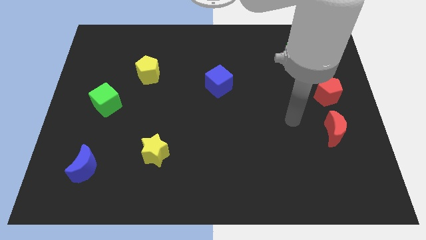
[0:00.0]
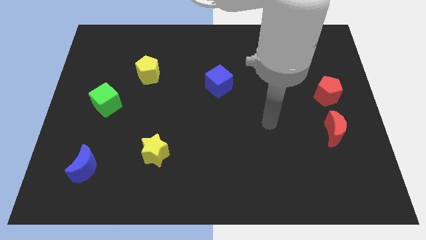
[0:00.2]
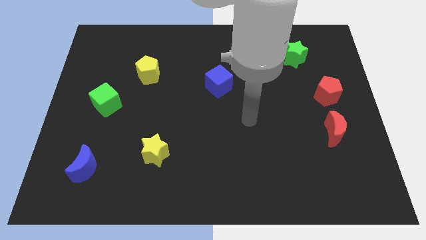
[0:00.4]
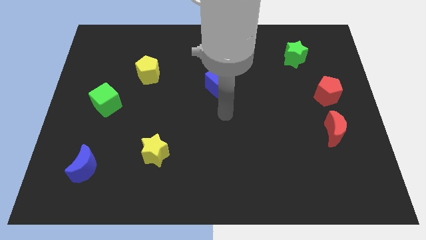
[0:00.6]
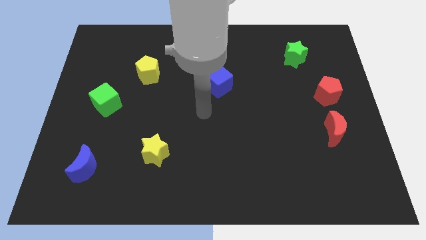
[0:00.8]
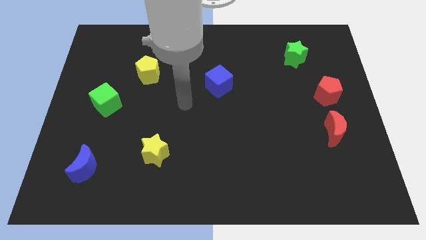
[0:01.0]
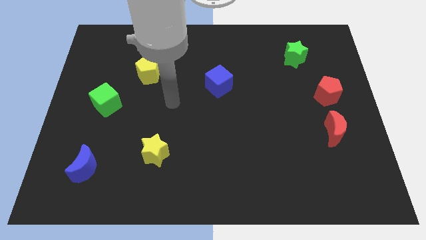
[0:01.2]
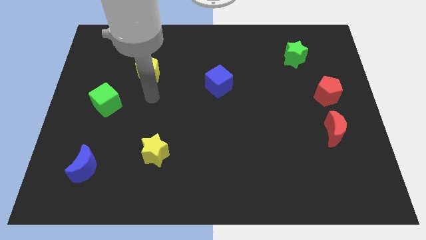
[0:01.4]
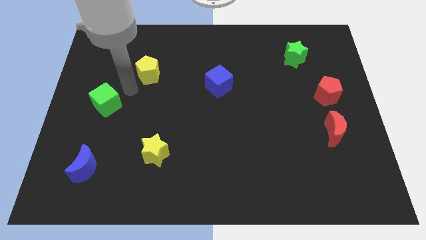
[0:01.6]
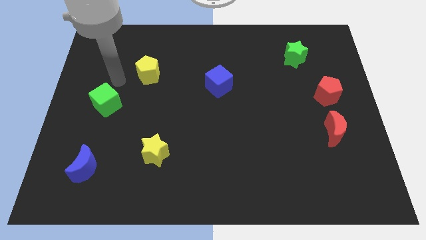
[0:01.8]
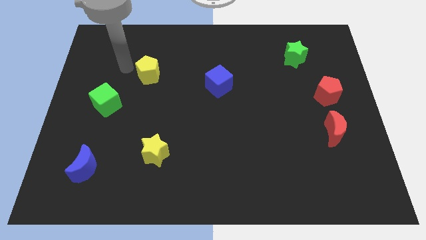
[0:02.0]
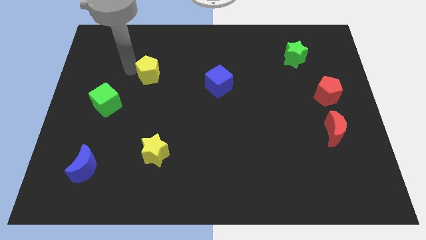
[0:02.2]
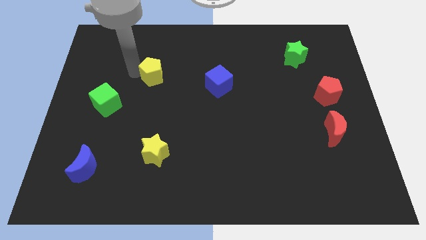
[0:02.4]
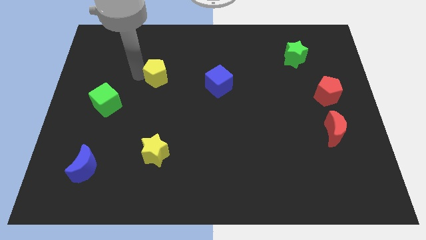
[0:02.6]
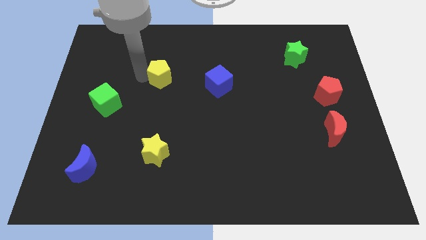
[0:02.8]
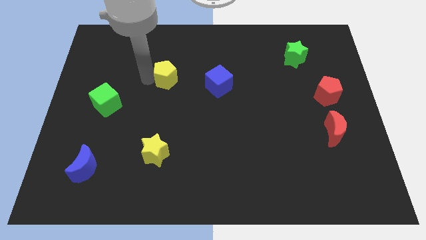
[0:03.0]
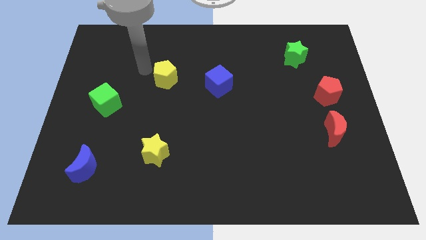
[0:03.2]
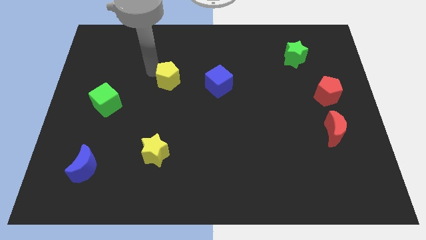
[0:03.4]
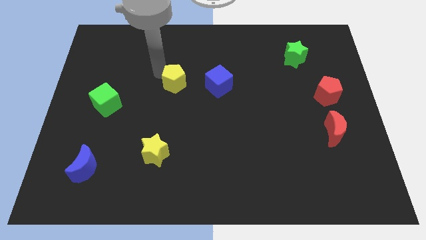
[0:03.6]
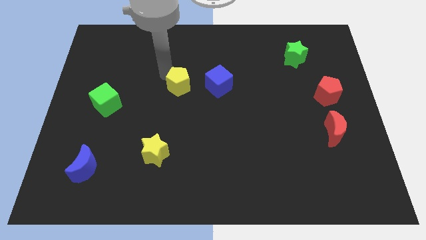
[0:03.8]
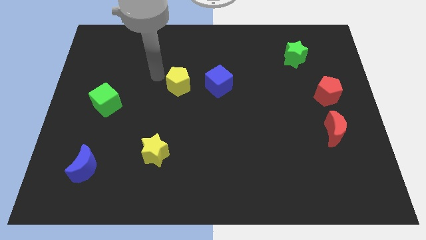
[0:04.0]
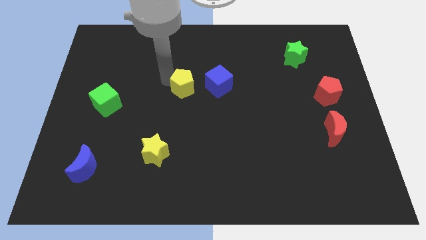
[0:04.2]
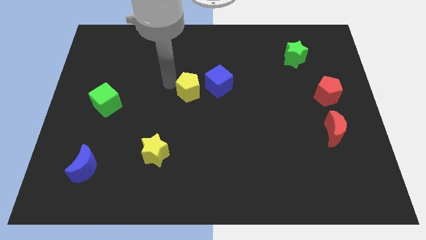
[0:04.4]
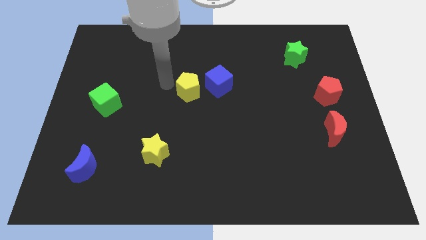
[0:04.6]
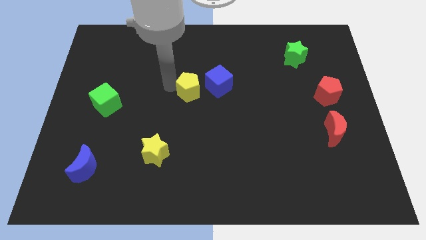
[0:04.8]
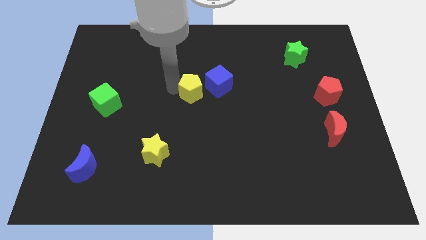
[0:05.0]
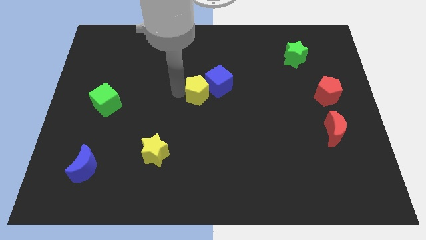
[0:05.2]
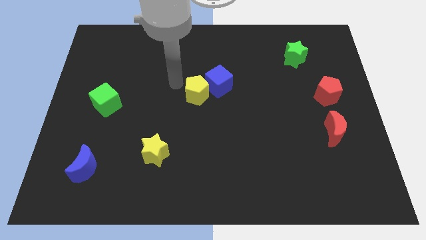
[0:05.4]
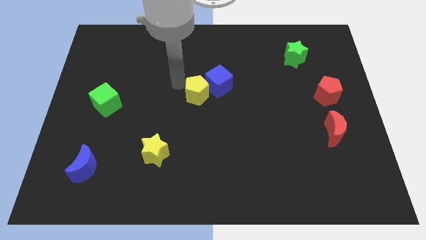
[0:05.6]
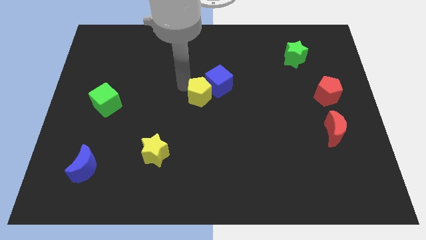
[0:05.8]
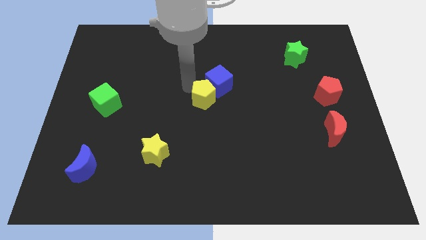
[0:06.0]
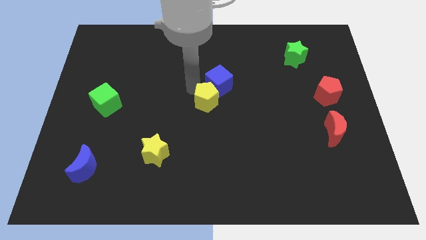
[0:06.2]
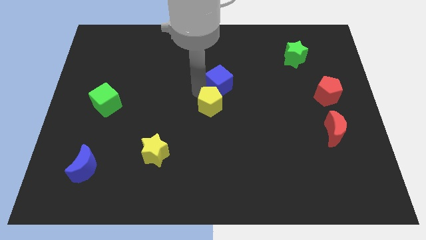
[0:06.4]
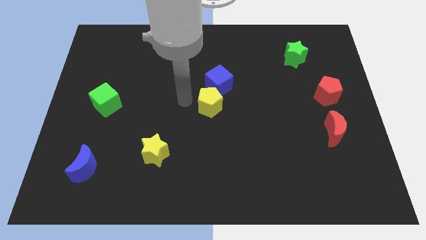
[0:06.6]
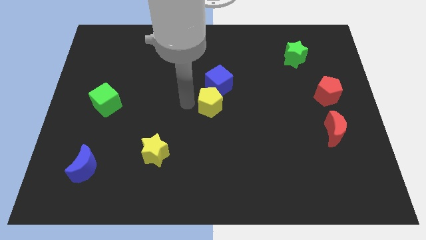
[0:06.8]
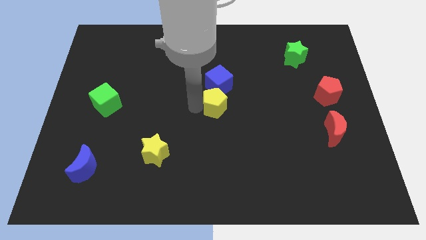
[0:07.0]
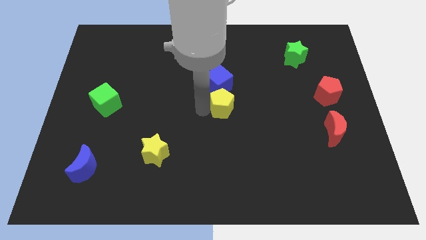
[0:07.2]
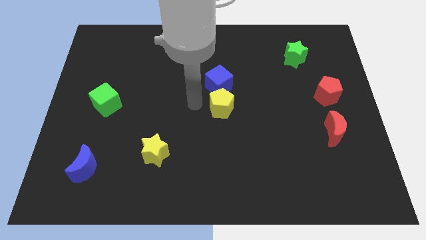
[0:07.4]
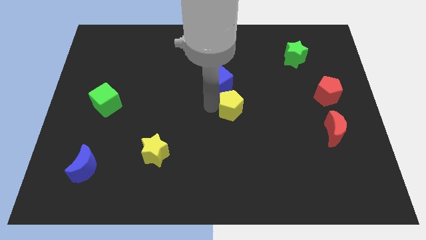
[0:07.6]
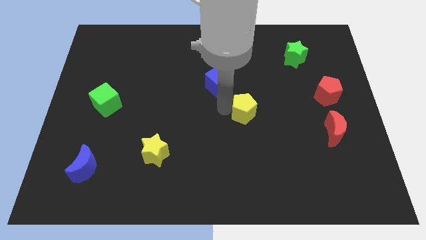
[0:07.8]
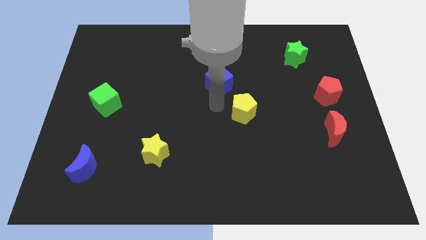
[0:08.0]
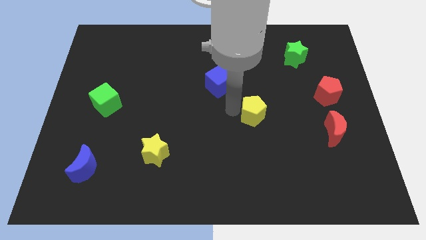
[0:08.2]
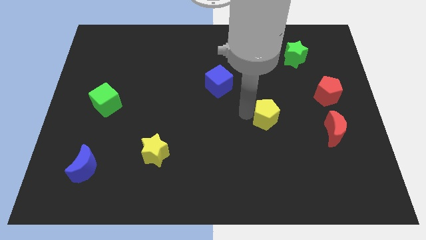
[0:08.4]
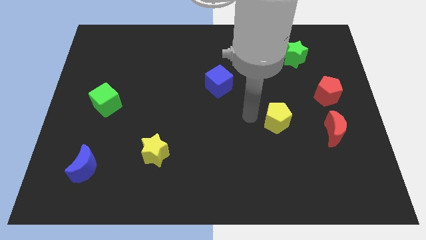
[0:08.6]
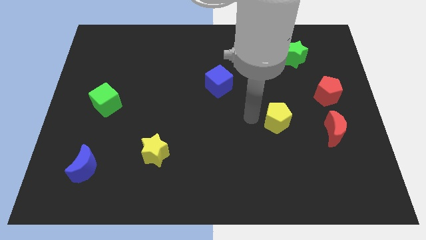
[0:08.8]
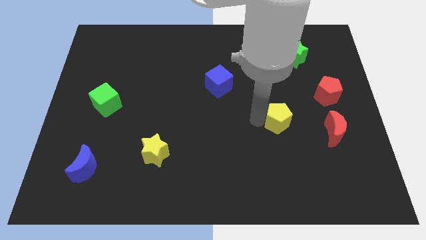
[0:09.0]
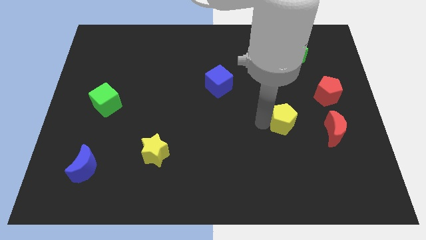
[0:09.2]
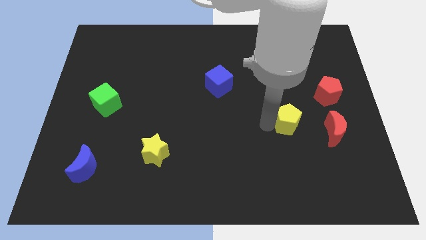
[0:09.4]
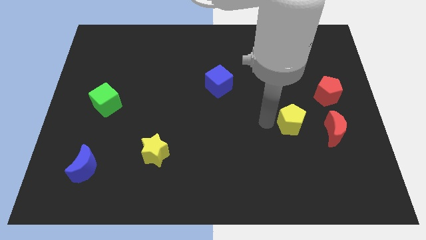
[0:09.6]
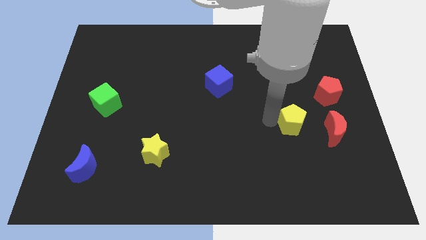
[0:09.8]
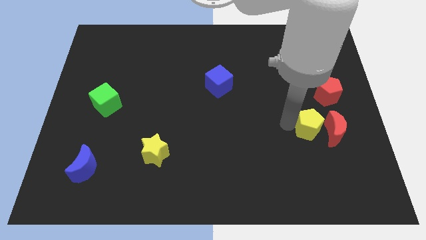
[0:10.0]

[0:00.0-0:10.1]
move the yellow pentagon close to the red moon

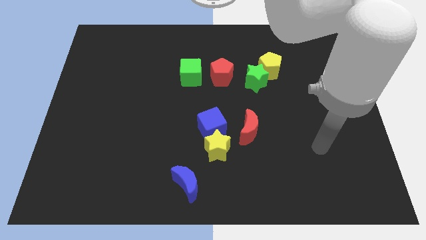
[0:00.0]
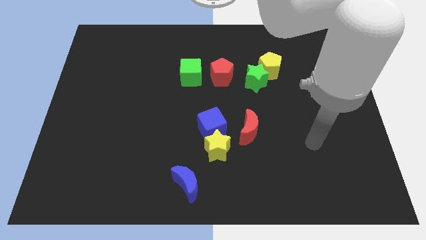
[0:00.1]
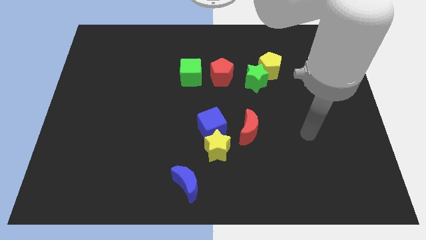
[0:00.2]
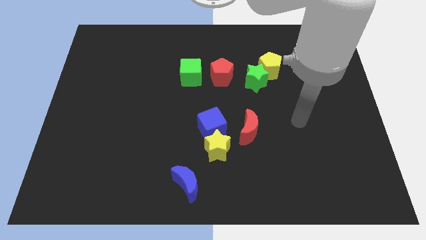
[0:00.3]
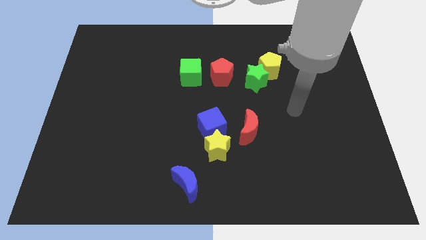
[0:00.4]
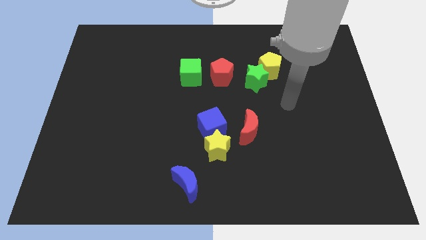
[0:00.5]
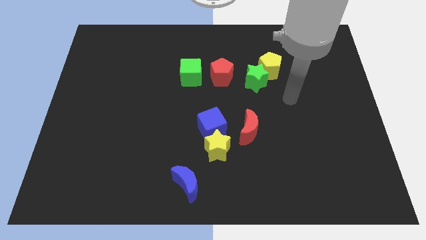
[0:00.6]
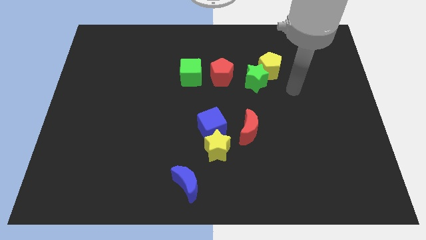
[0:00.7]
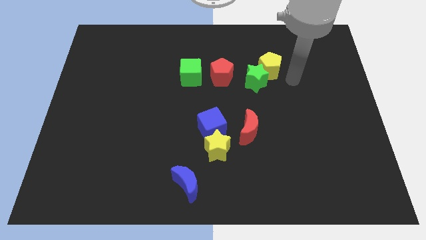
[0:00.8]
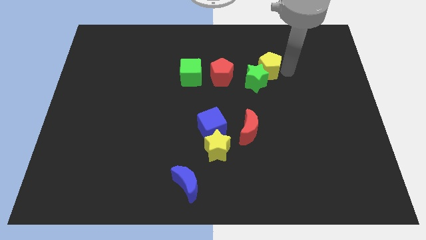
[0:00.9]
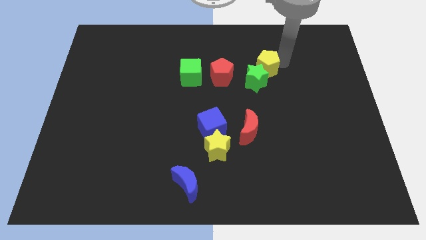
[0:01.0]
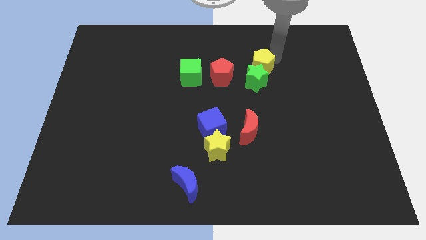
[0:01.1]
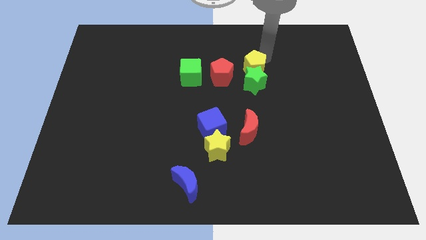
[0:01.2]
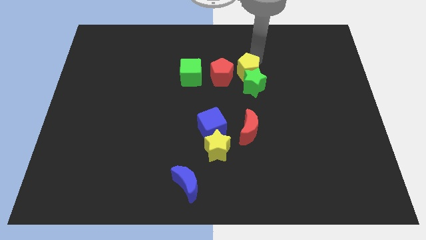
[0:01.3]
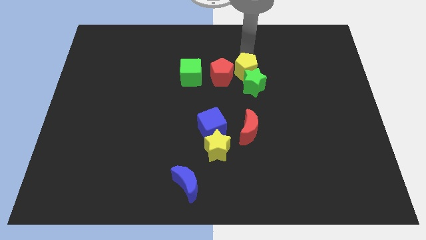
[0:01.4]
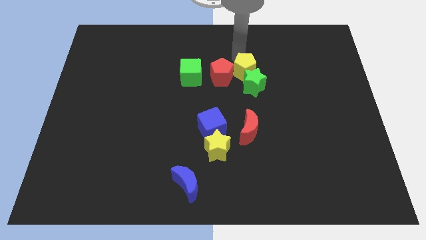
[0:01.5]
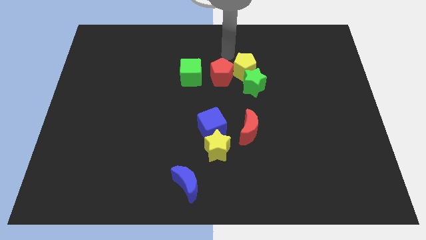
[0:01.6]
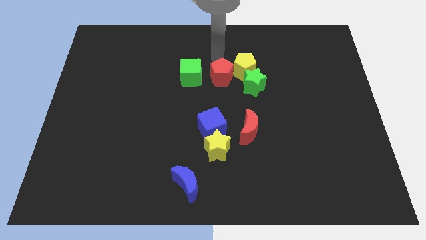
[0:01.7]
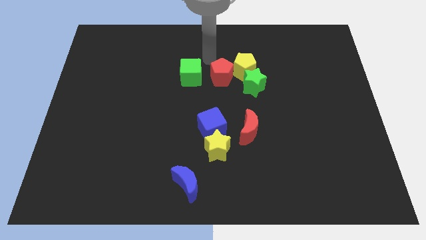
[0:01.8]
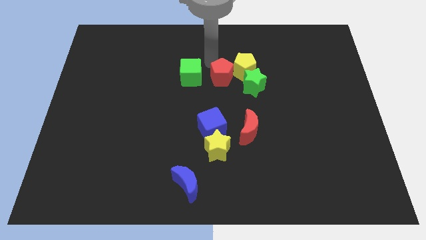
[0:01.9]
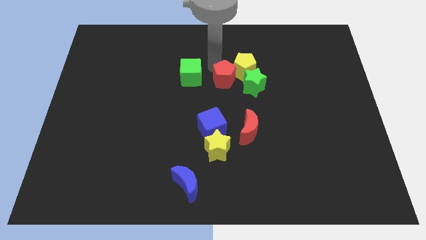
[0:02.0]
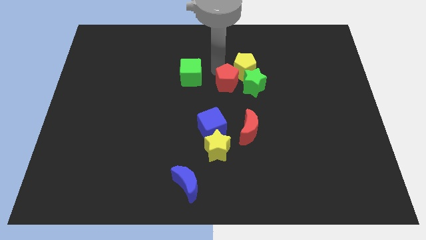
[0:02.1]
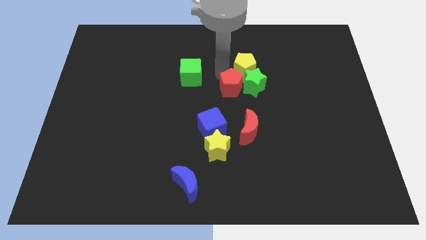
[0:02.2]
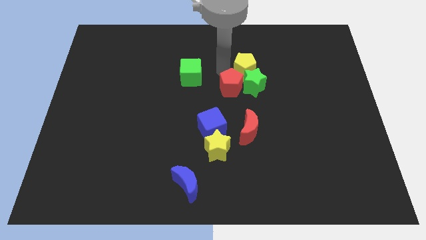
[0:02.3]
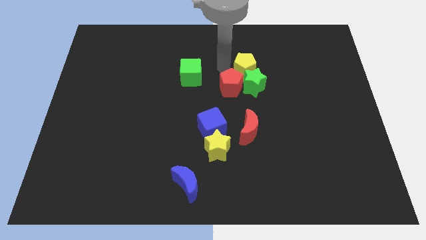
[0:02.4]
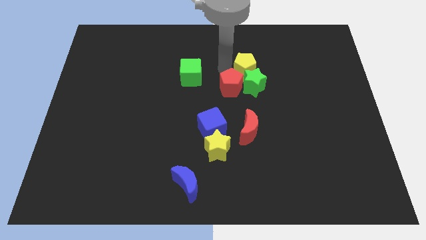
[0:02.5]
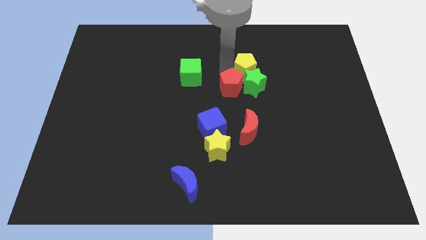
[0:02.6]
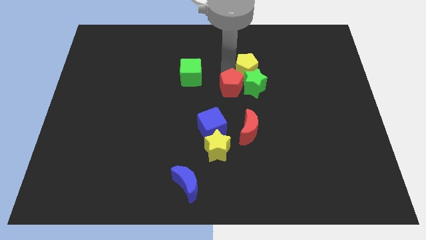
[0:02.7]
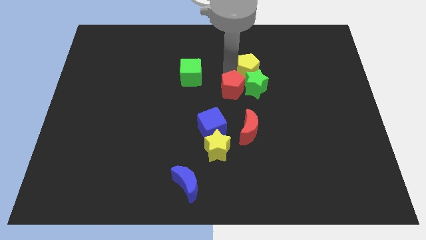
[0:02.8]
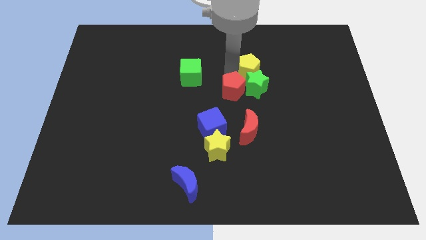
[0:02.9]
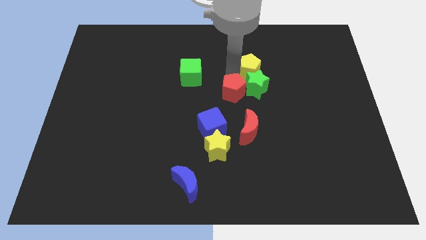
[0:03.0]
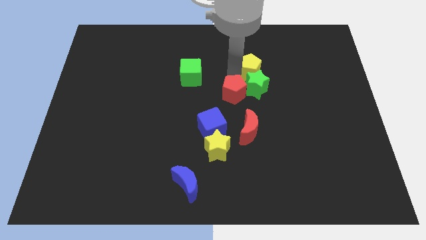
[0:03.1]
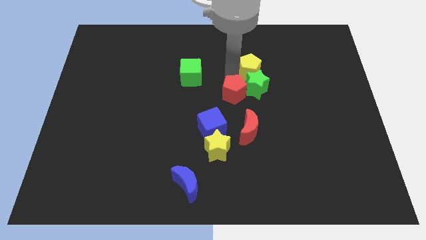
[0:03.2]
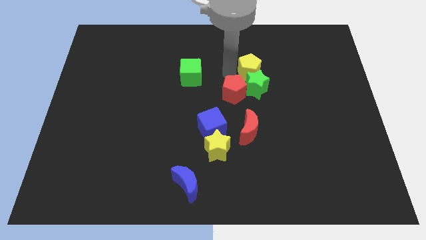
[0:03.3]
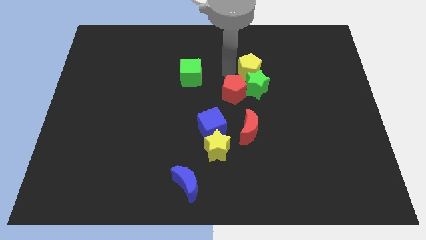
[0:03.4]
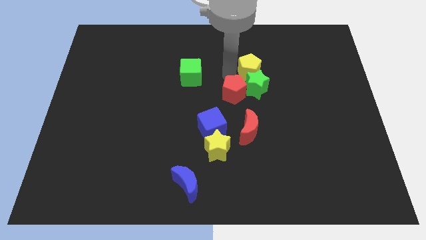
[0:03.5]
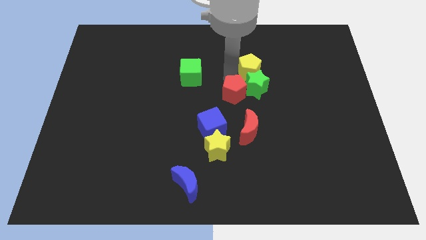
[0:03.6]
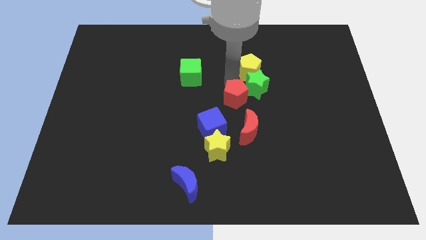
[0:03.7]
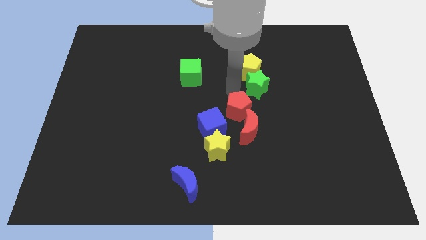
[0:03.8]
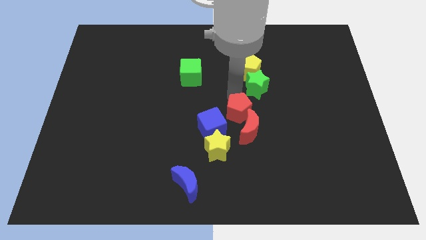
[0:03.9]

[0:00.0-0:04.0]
move the red pentagon next to the red moon
